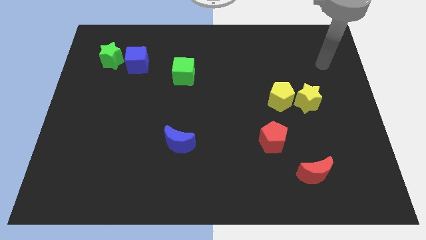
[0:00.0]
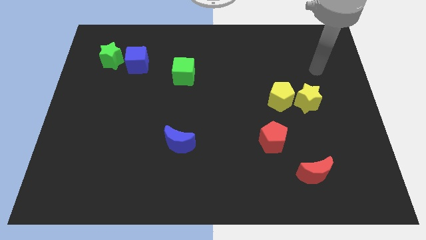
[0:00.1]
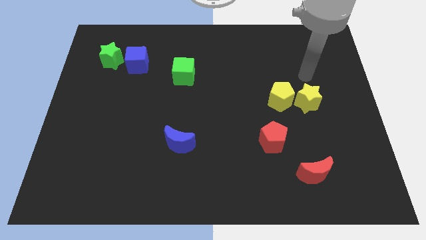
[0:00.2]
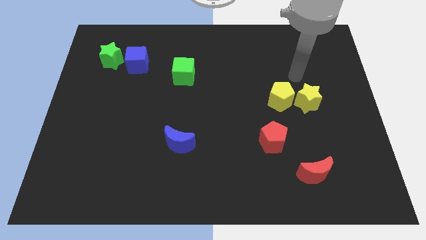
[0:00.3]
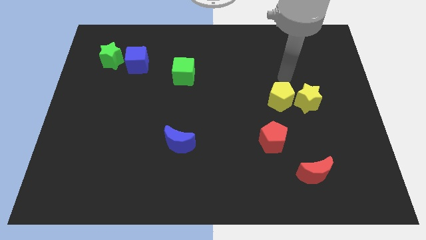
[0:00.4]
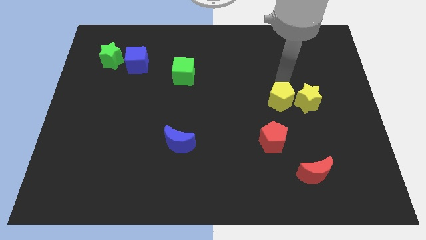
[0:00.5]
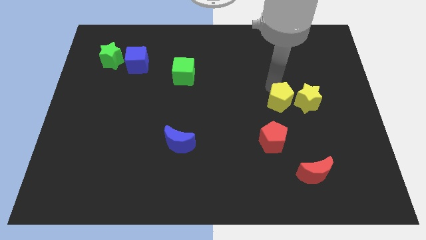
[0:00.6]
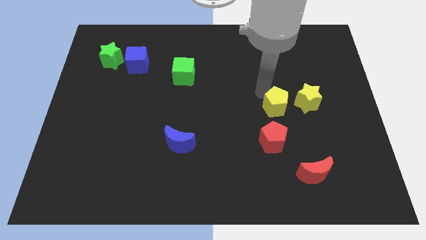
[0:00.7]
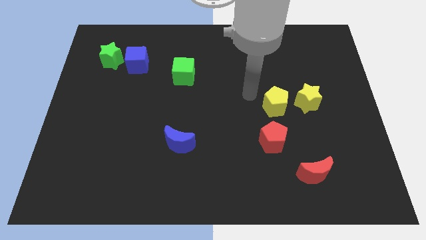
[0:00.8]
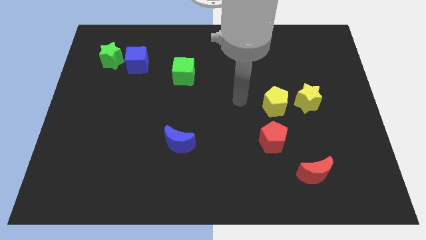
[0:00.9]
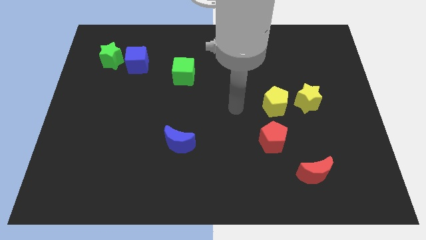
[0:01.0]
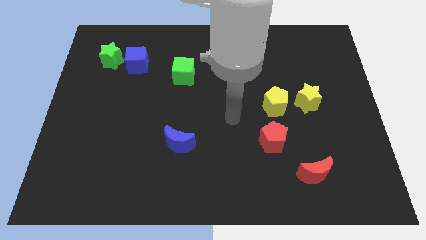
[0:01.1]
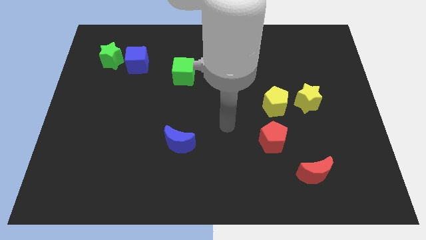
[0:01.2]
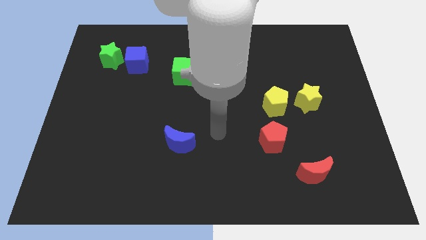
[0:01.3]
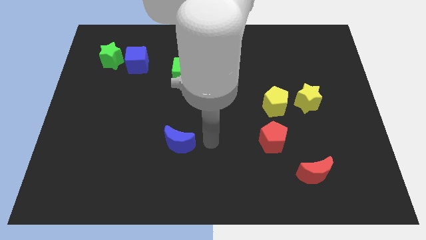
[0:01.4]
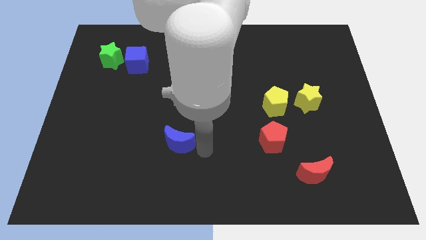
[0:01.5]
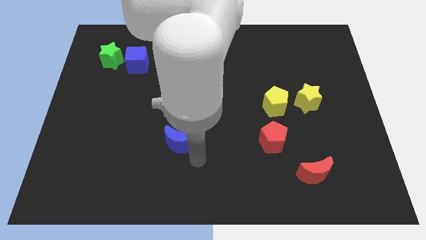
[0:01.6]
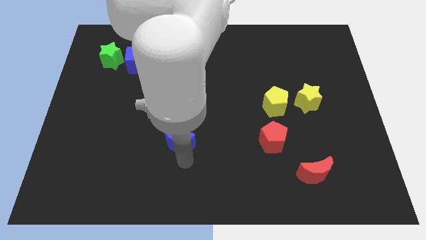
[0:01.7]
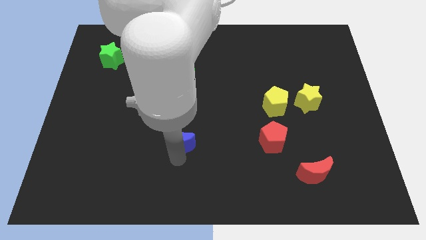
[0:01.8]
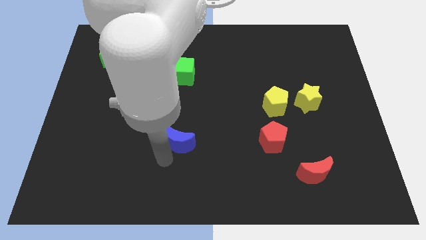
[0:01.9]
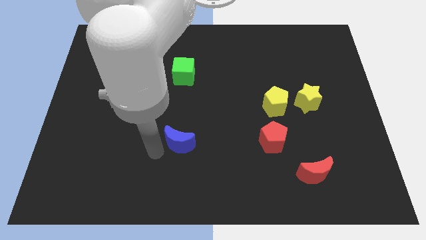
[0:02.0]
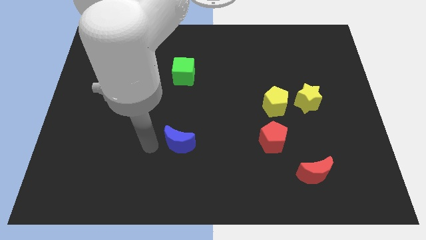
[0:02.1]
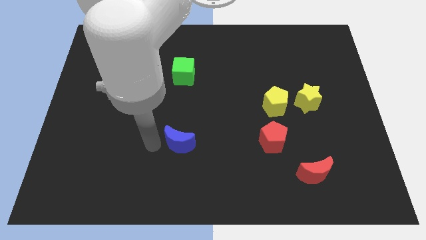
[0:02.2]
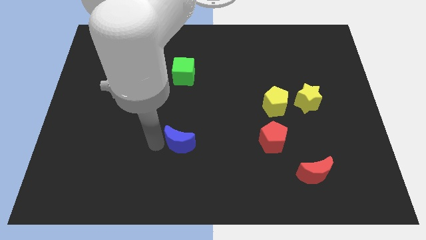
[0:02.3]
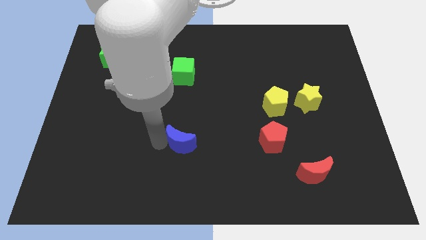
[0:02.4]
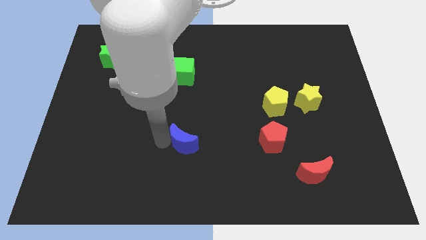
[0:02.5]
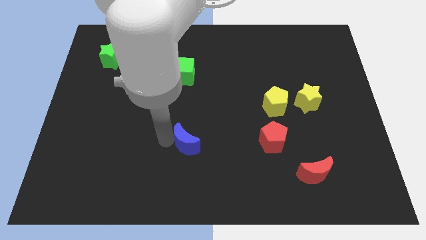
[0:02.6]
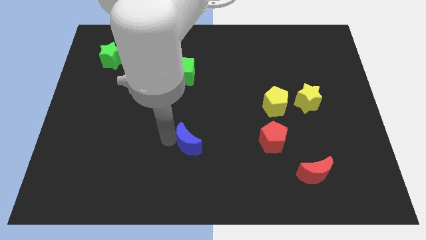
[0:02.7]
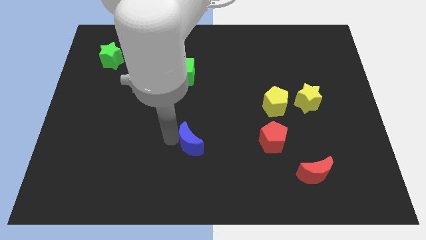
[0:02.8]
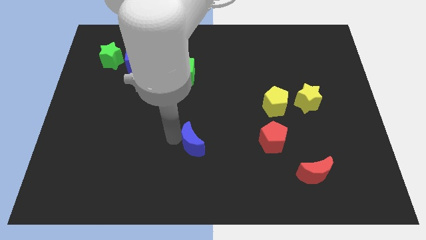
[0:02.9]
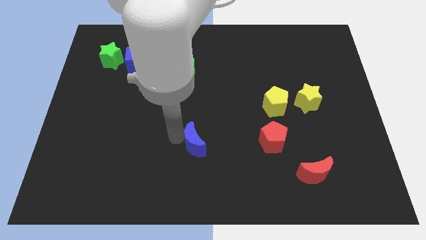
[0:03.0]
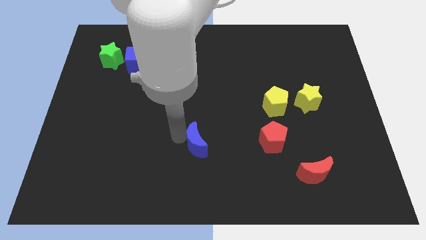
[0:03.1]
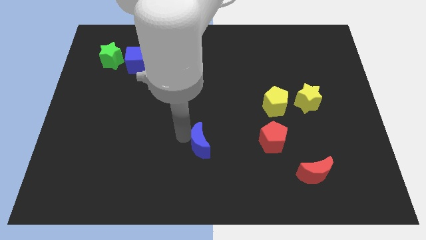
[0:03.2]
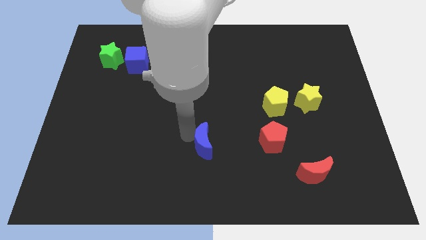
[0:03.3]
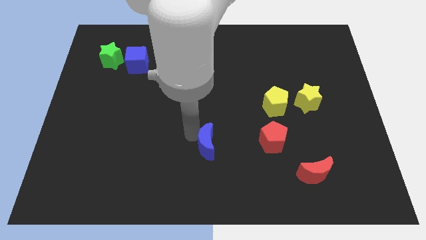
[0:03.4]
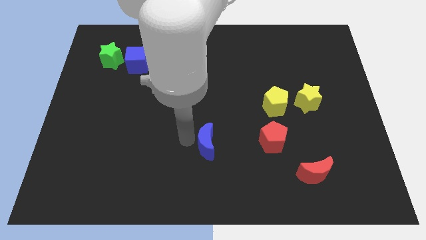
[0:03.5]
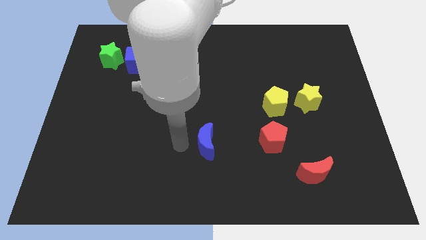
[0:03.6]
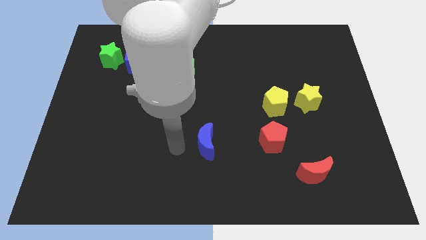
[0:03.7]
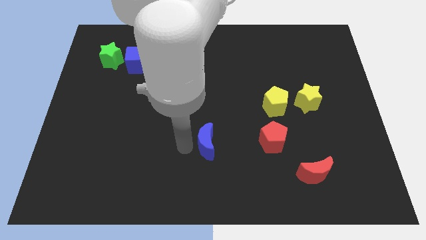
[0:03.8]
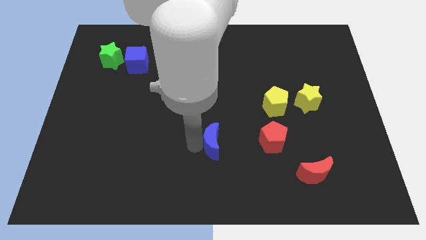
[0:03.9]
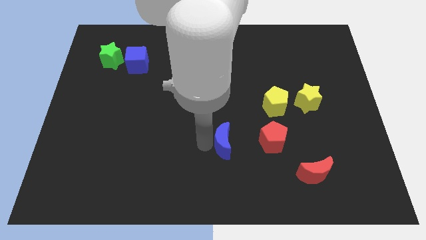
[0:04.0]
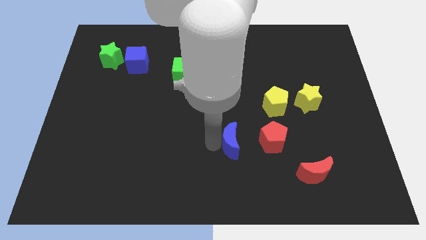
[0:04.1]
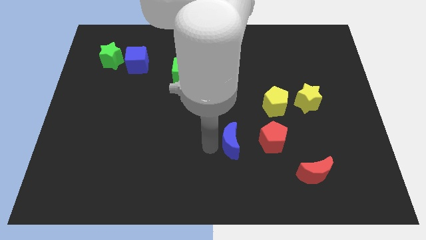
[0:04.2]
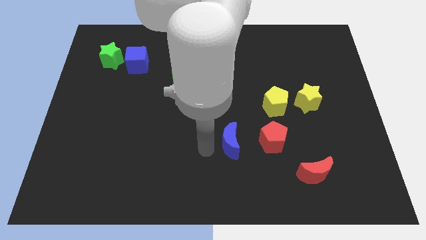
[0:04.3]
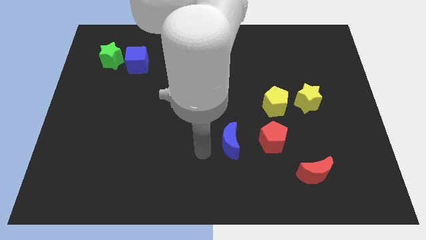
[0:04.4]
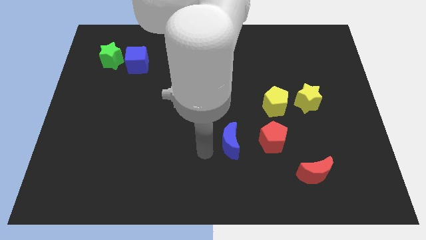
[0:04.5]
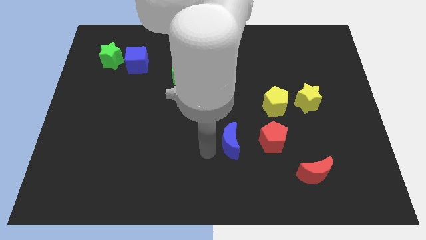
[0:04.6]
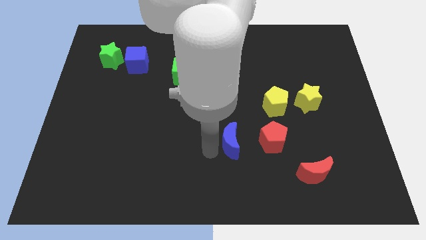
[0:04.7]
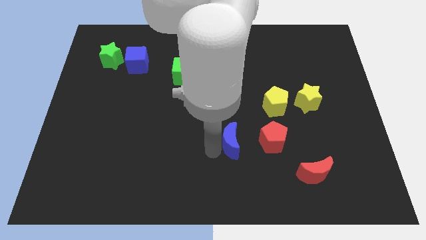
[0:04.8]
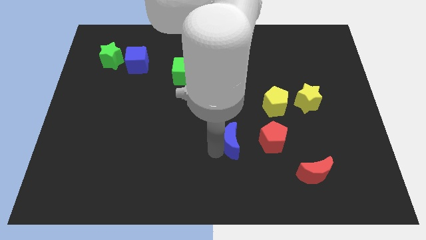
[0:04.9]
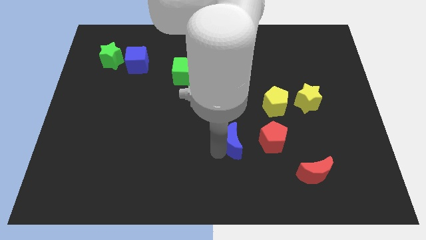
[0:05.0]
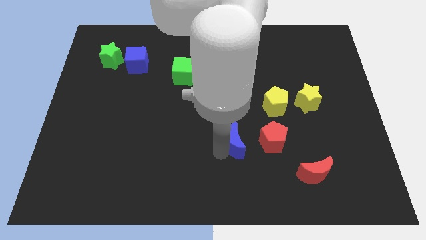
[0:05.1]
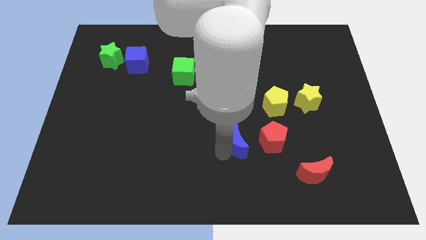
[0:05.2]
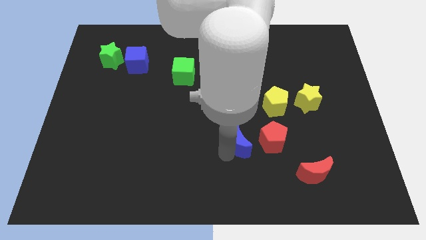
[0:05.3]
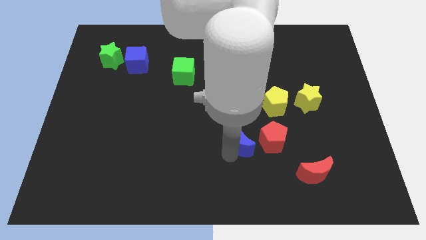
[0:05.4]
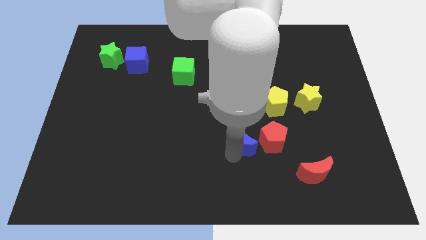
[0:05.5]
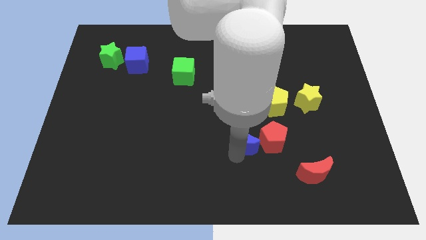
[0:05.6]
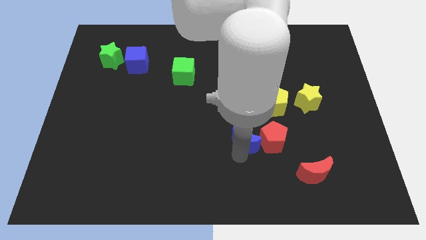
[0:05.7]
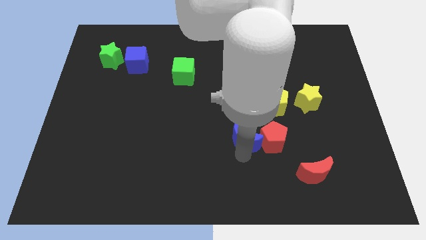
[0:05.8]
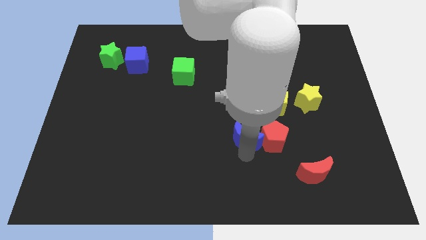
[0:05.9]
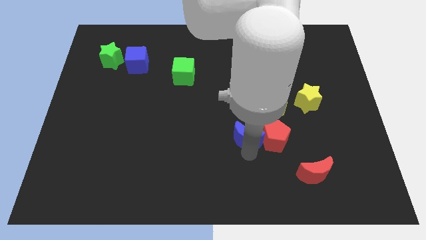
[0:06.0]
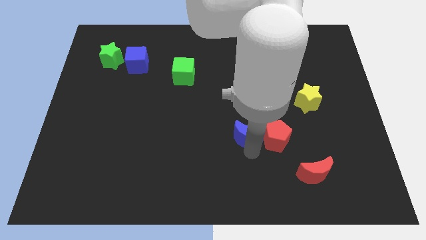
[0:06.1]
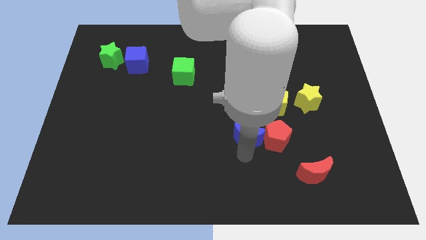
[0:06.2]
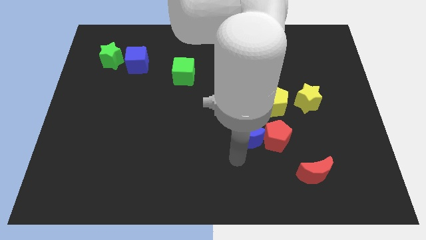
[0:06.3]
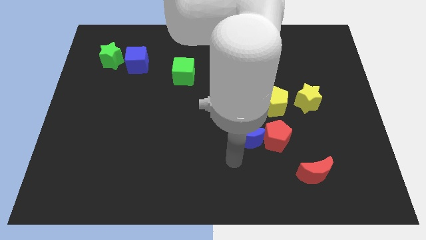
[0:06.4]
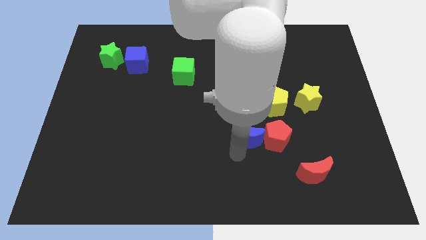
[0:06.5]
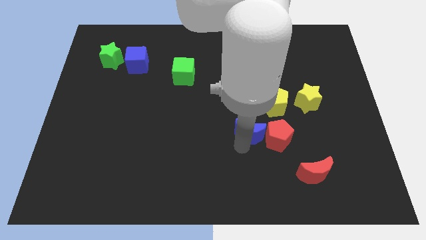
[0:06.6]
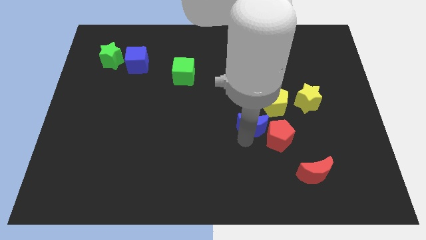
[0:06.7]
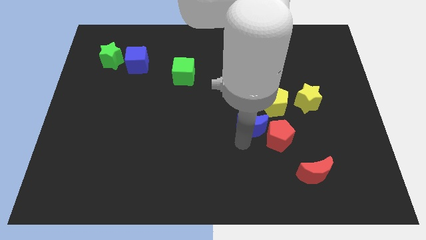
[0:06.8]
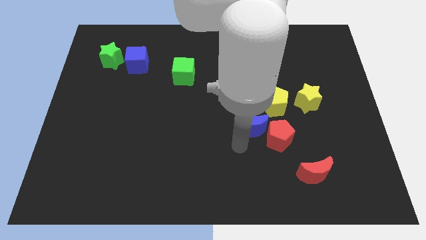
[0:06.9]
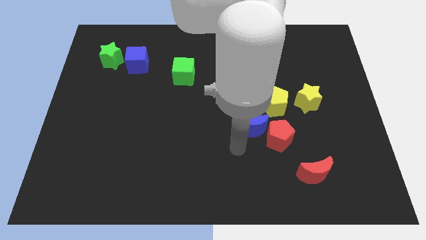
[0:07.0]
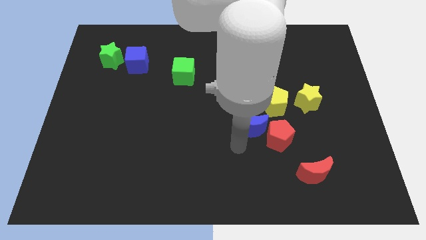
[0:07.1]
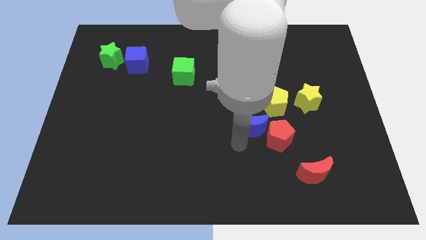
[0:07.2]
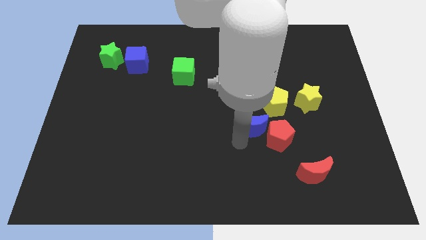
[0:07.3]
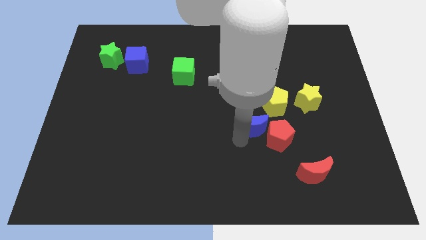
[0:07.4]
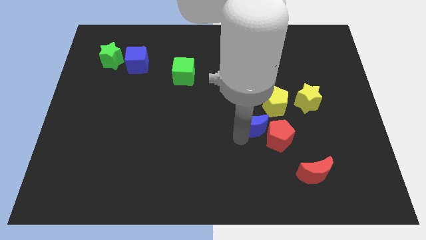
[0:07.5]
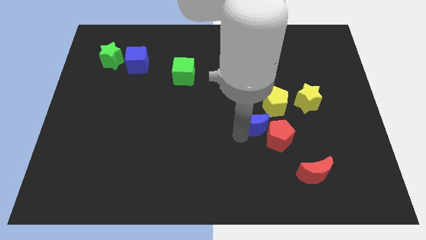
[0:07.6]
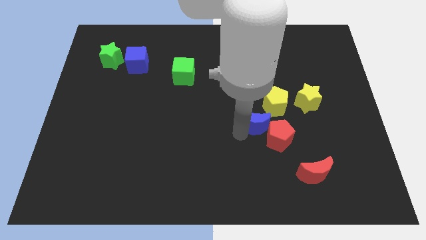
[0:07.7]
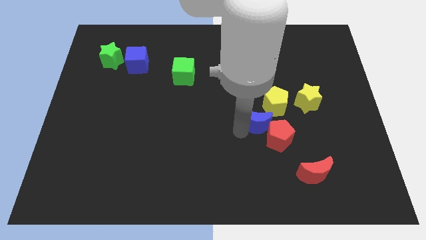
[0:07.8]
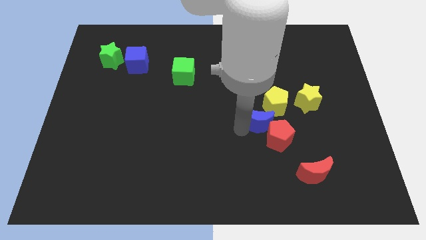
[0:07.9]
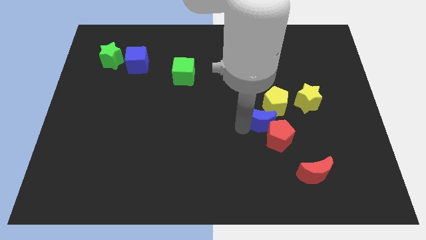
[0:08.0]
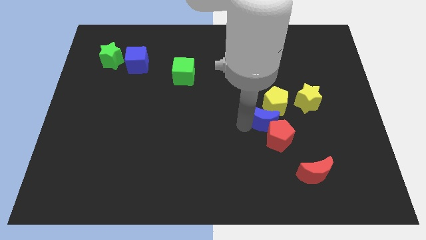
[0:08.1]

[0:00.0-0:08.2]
move the blue moon towards the yellow pentagon
